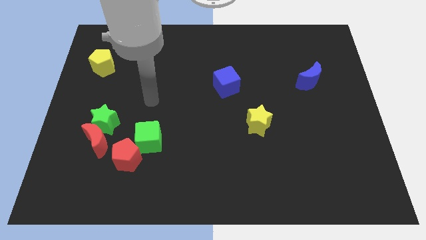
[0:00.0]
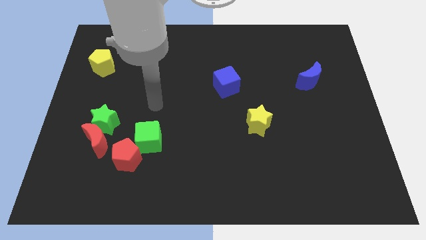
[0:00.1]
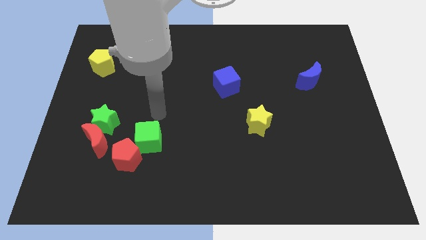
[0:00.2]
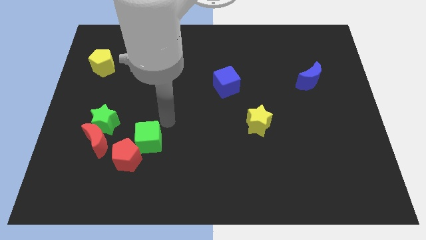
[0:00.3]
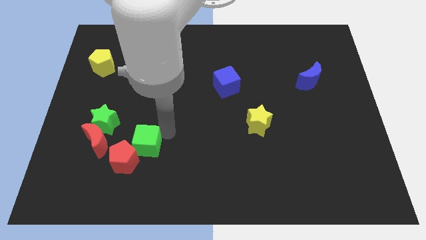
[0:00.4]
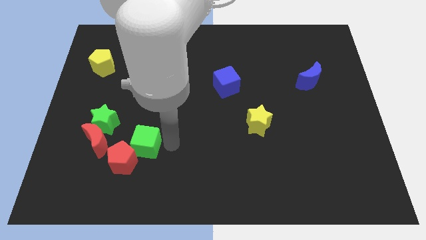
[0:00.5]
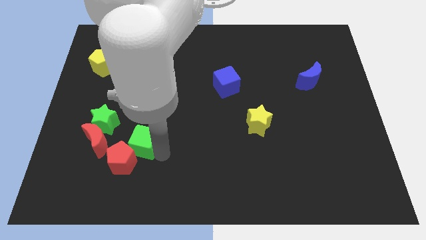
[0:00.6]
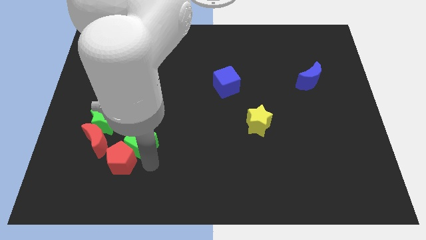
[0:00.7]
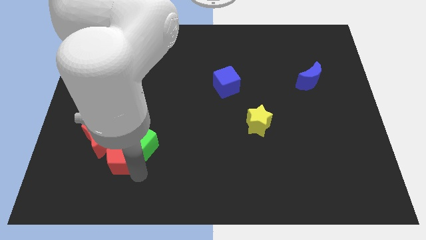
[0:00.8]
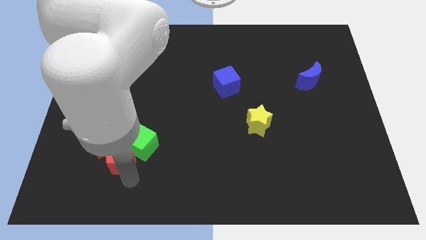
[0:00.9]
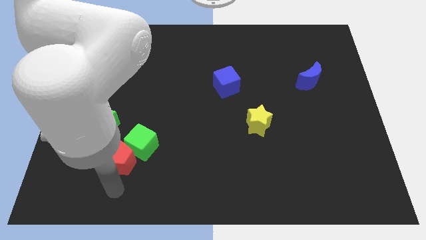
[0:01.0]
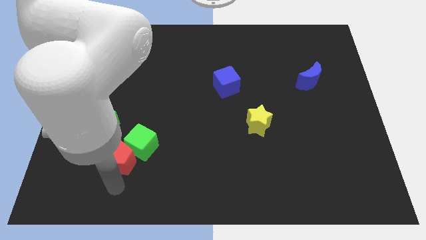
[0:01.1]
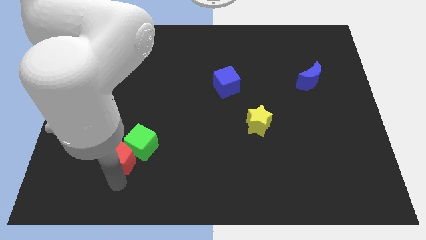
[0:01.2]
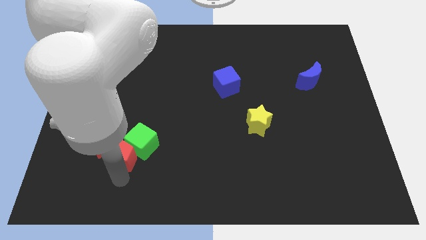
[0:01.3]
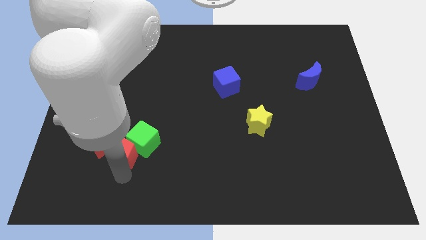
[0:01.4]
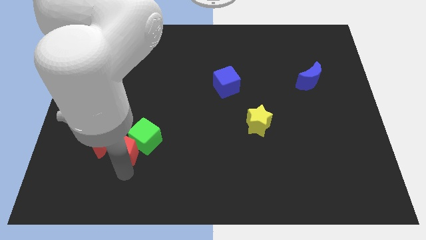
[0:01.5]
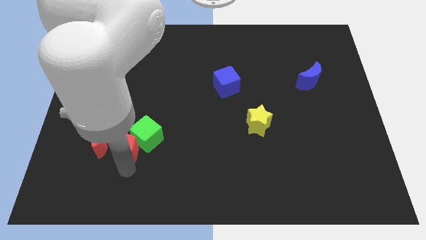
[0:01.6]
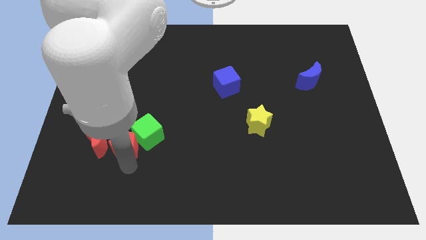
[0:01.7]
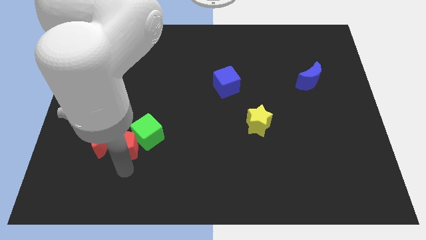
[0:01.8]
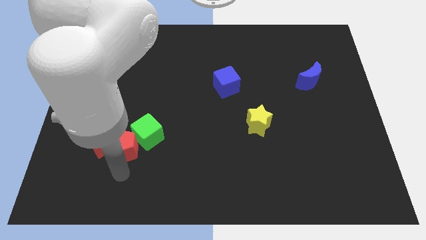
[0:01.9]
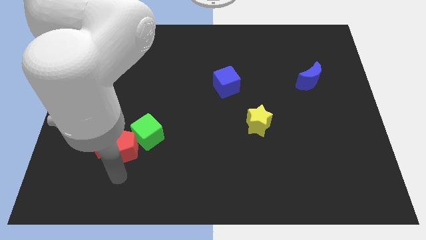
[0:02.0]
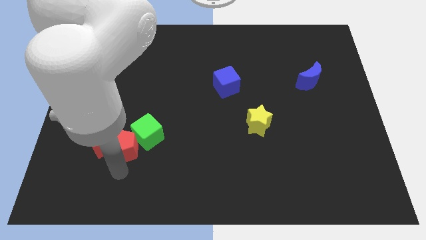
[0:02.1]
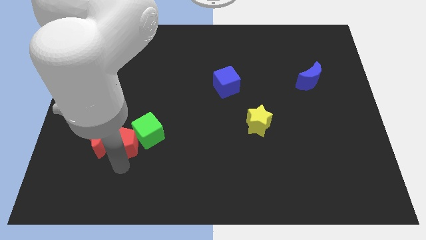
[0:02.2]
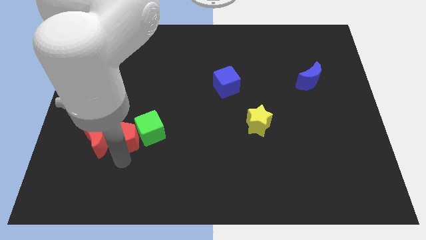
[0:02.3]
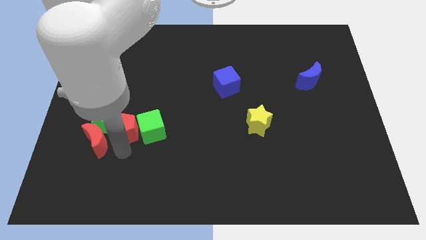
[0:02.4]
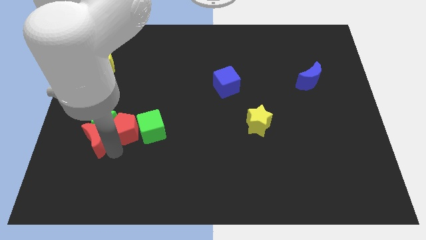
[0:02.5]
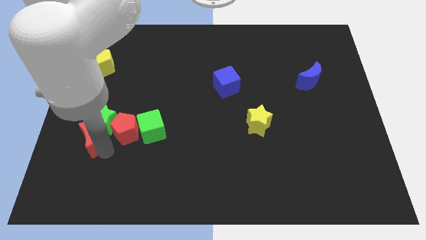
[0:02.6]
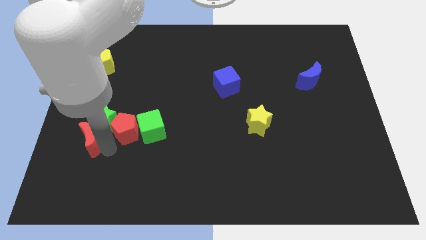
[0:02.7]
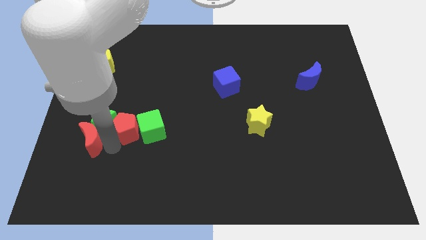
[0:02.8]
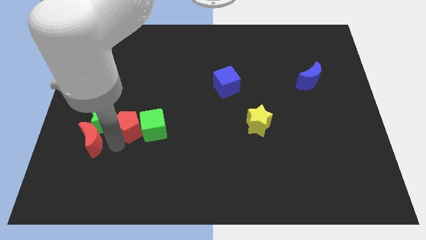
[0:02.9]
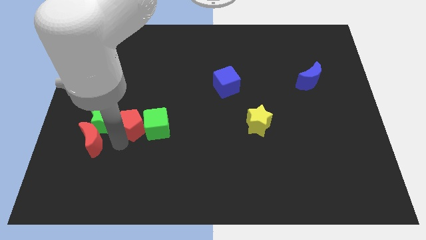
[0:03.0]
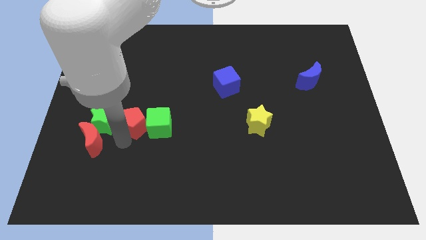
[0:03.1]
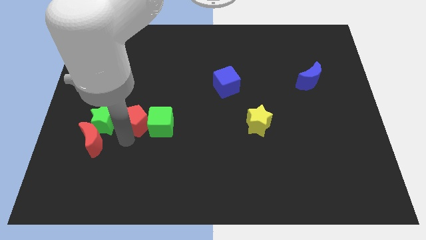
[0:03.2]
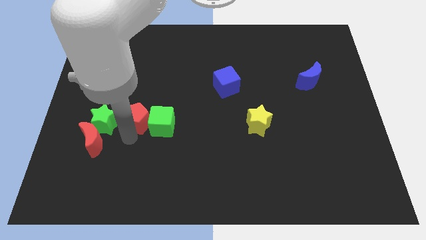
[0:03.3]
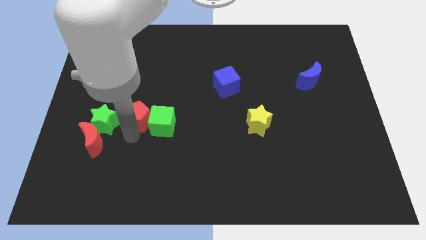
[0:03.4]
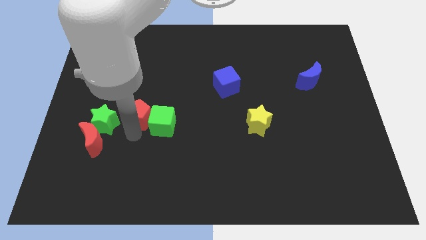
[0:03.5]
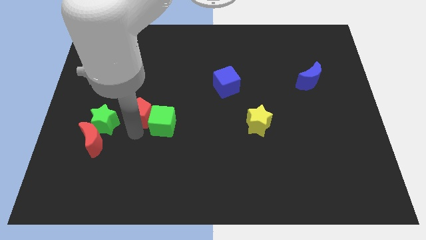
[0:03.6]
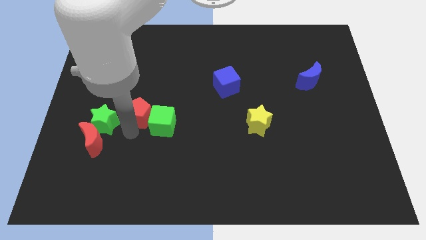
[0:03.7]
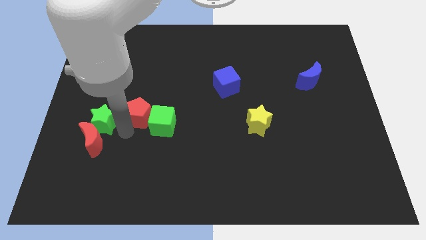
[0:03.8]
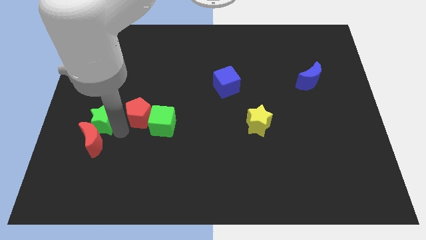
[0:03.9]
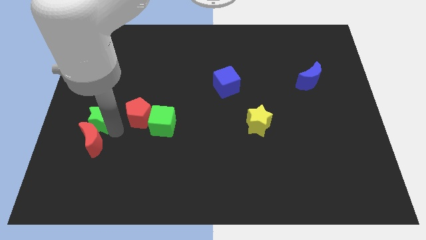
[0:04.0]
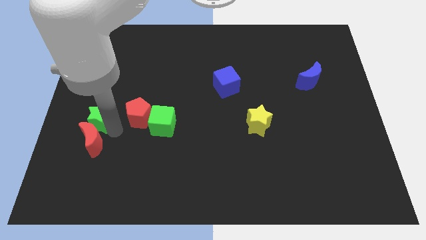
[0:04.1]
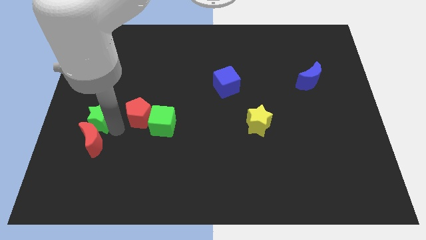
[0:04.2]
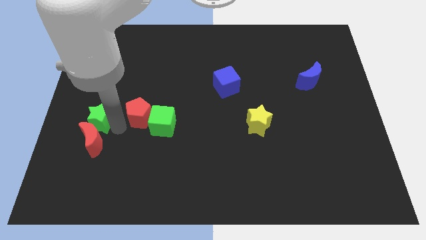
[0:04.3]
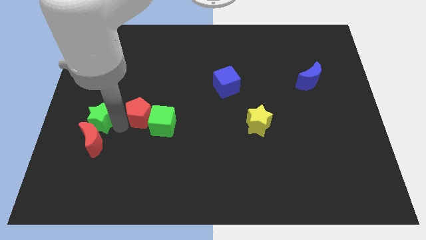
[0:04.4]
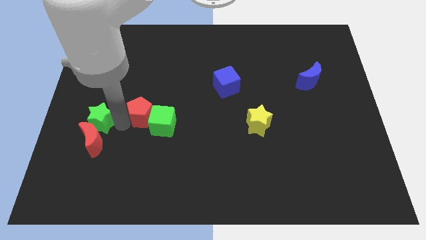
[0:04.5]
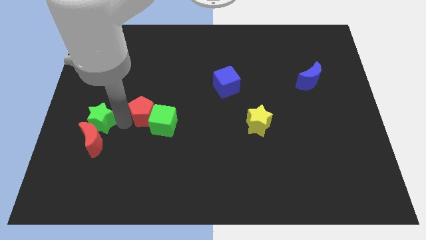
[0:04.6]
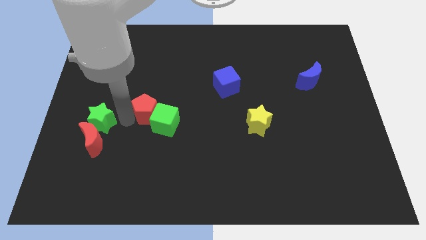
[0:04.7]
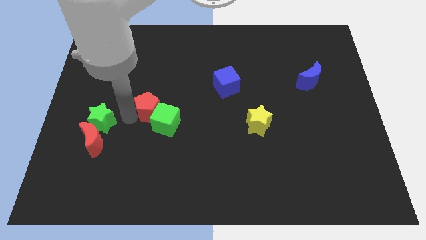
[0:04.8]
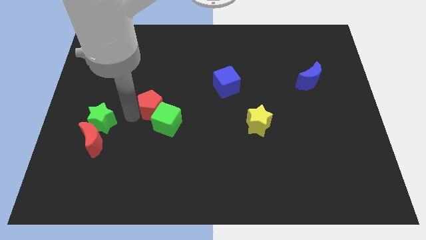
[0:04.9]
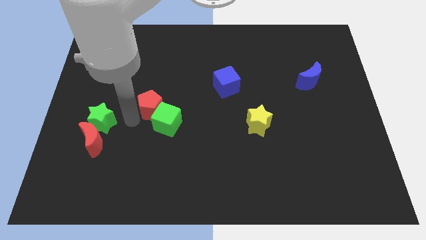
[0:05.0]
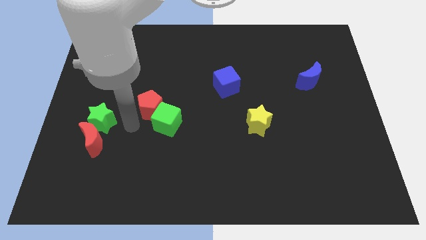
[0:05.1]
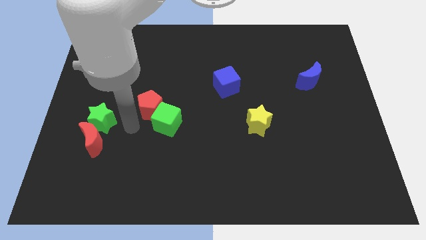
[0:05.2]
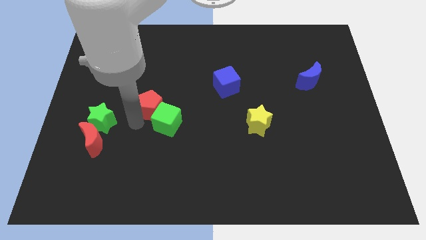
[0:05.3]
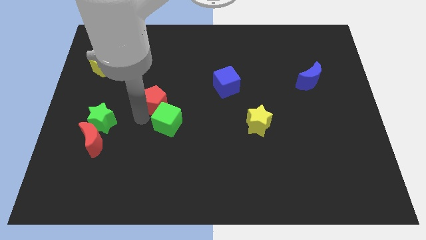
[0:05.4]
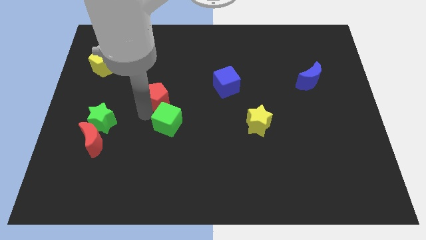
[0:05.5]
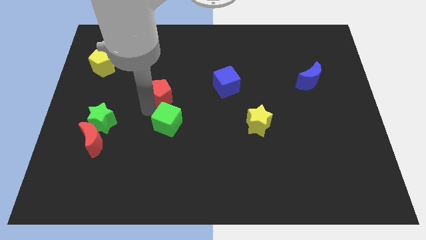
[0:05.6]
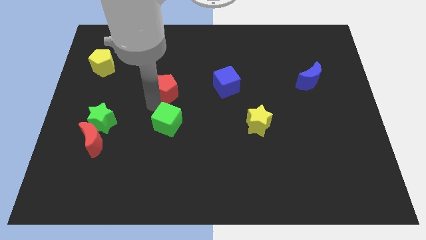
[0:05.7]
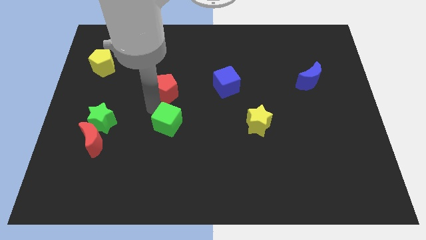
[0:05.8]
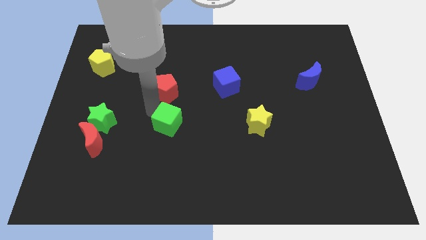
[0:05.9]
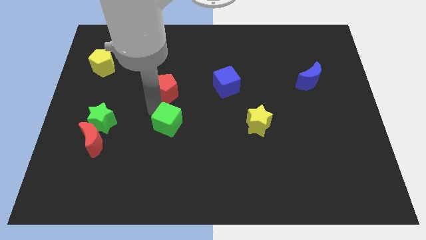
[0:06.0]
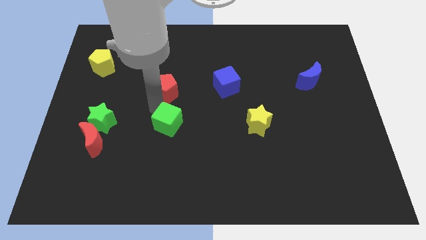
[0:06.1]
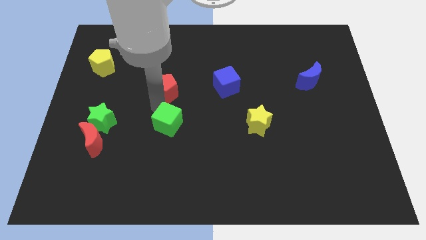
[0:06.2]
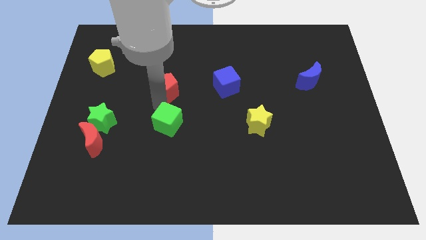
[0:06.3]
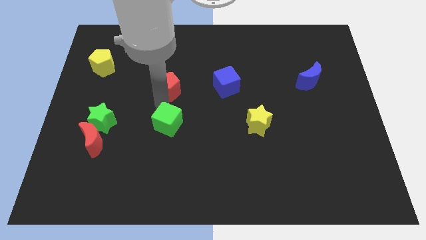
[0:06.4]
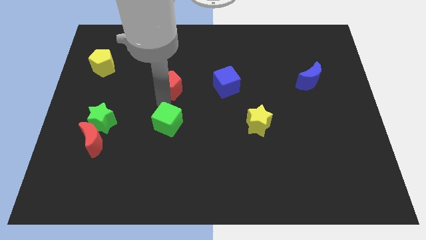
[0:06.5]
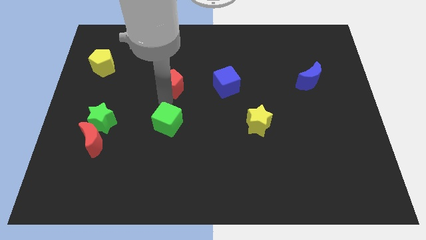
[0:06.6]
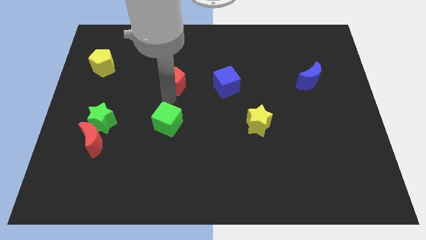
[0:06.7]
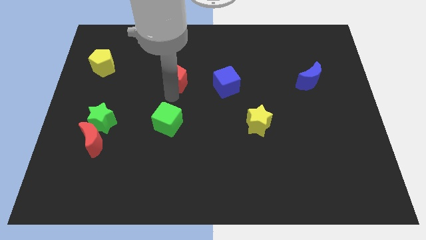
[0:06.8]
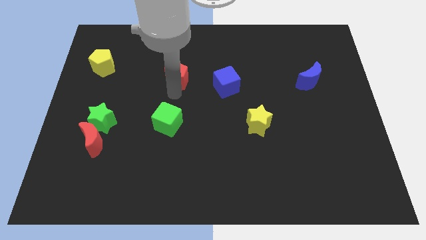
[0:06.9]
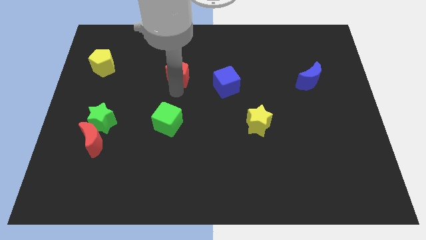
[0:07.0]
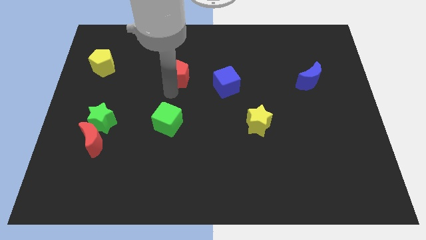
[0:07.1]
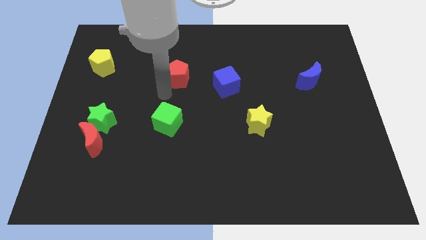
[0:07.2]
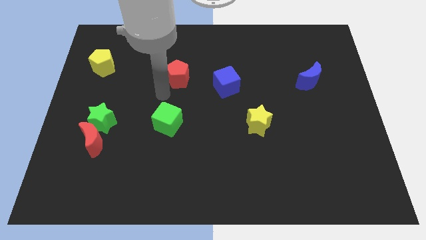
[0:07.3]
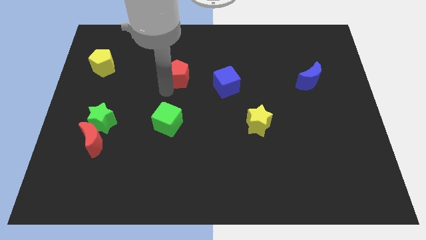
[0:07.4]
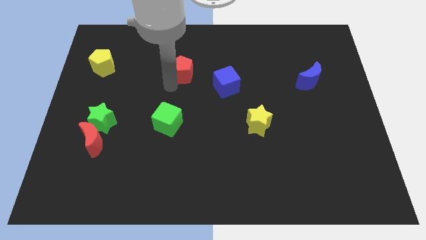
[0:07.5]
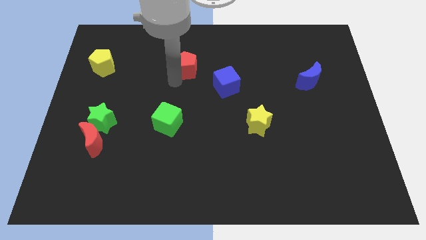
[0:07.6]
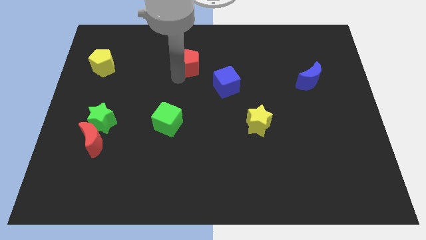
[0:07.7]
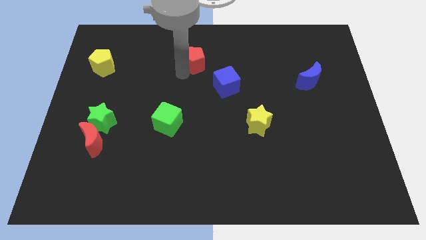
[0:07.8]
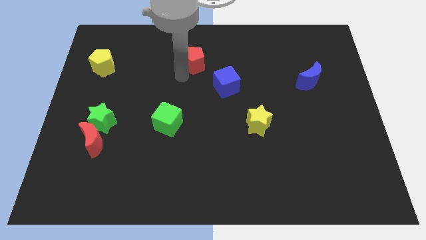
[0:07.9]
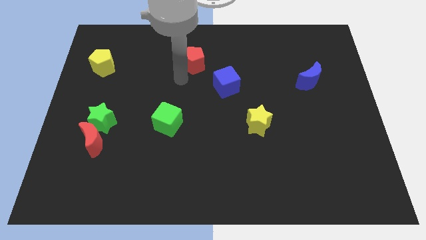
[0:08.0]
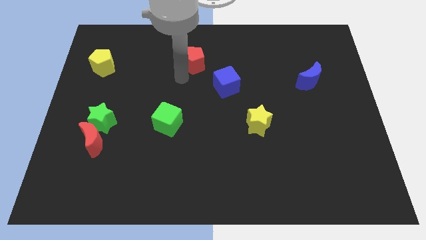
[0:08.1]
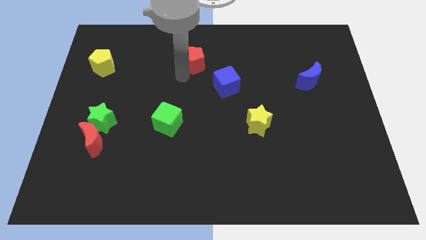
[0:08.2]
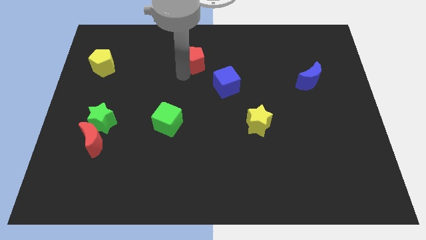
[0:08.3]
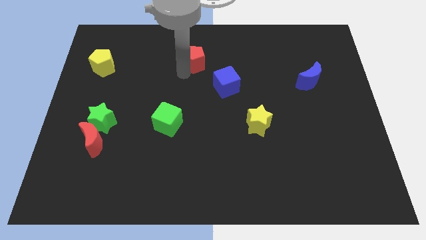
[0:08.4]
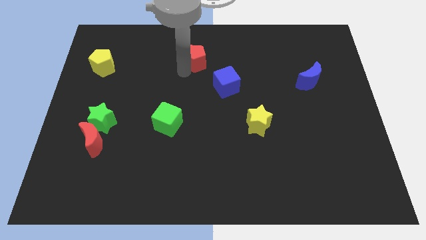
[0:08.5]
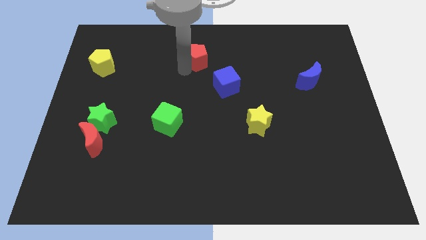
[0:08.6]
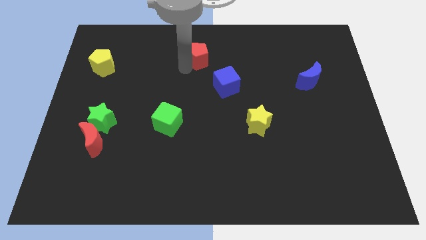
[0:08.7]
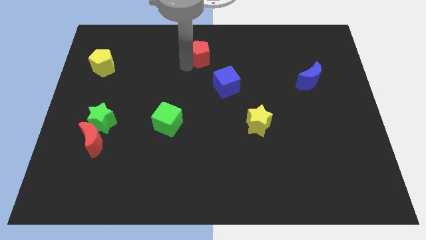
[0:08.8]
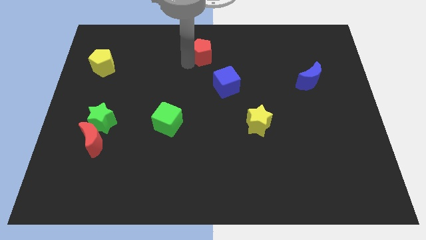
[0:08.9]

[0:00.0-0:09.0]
push the red pentagon to the top
